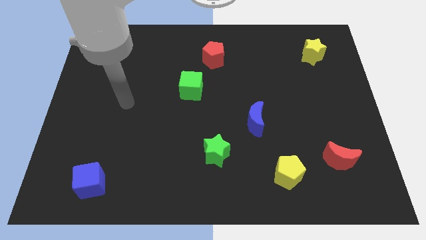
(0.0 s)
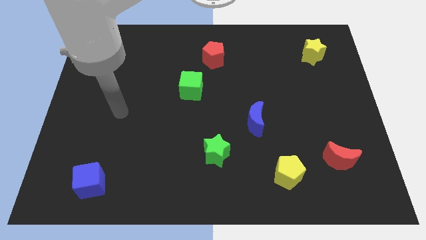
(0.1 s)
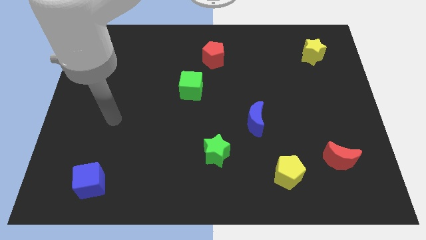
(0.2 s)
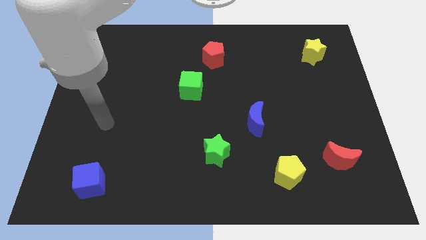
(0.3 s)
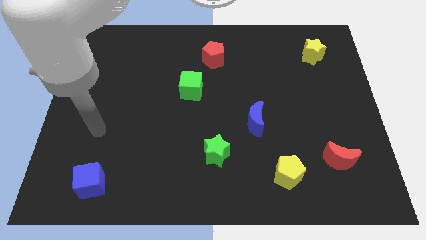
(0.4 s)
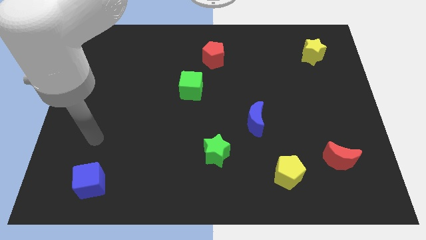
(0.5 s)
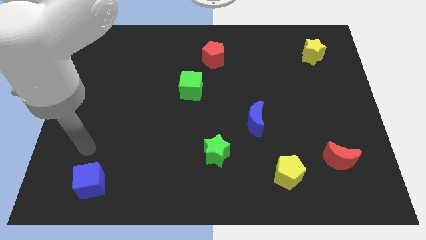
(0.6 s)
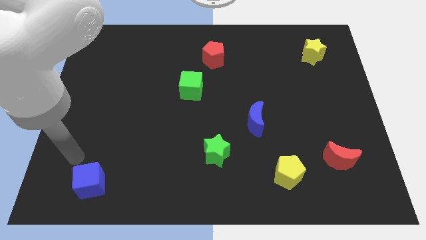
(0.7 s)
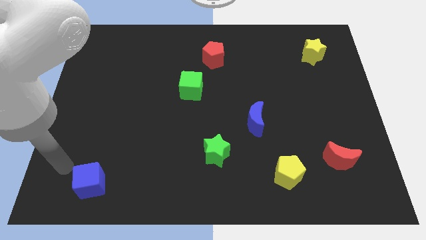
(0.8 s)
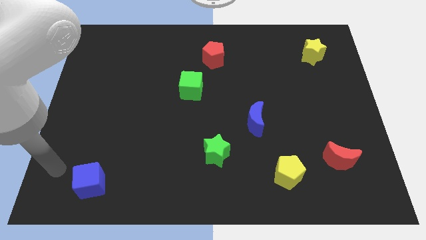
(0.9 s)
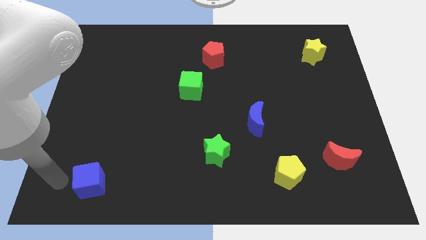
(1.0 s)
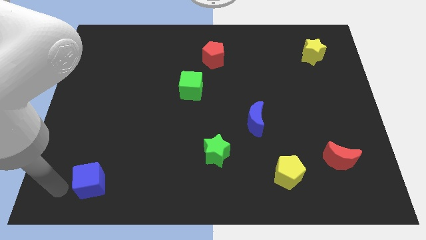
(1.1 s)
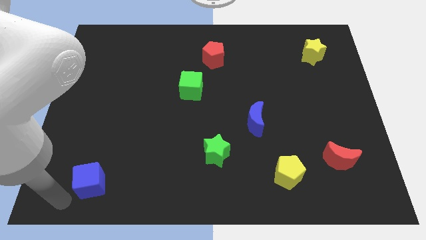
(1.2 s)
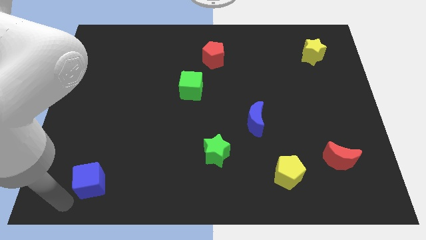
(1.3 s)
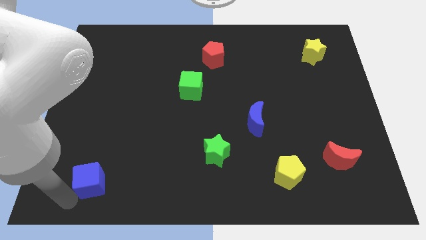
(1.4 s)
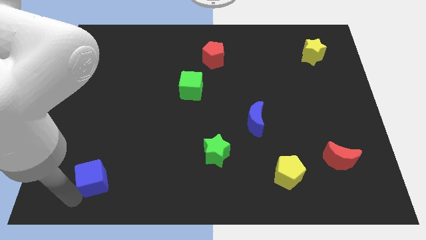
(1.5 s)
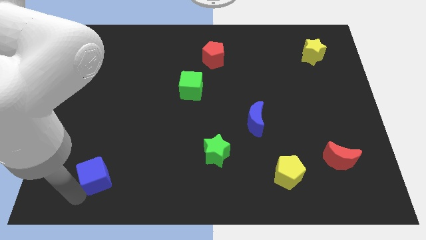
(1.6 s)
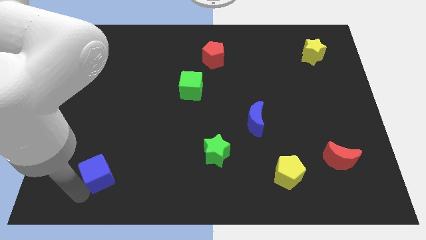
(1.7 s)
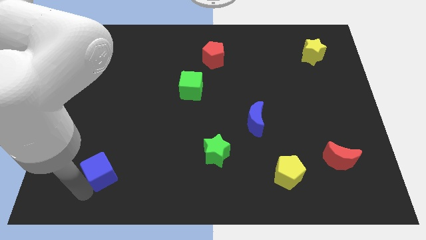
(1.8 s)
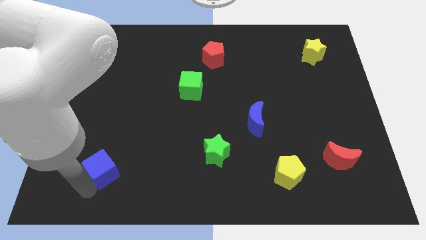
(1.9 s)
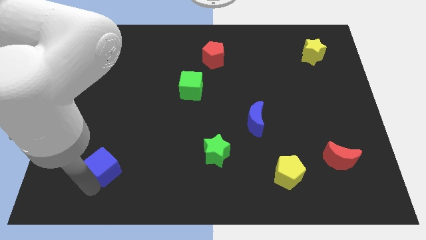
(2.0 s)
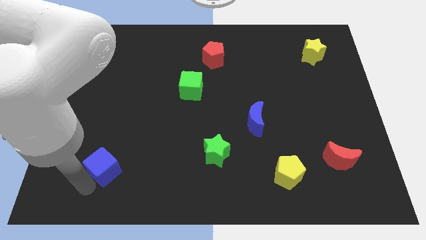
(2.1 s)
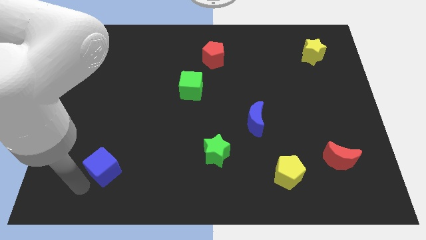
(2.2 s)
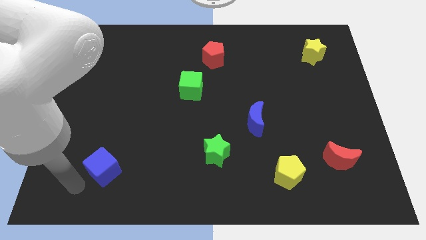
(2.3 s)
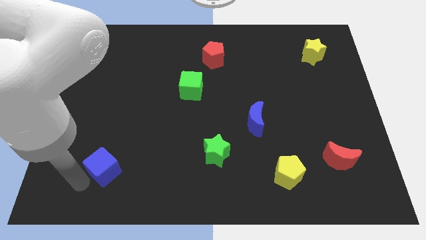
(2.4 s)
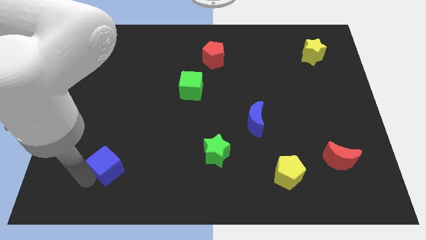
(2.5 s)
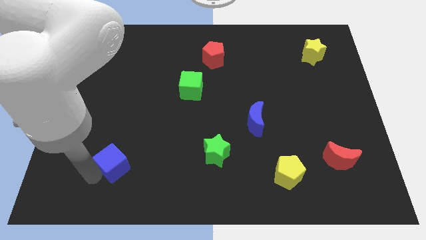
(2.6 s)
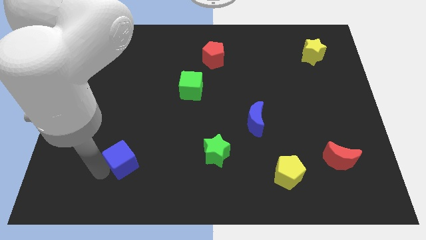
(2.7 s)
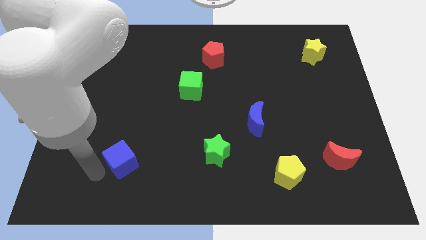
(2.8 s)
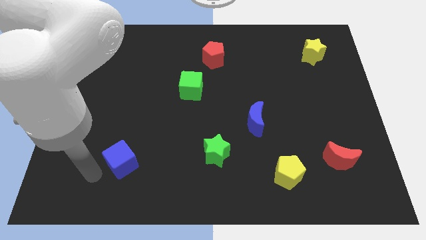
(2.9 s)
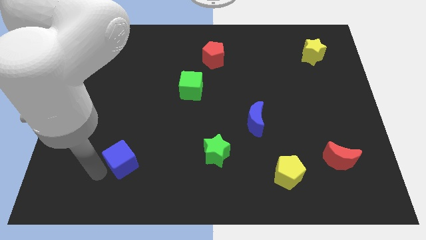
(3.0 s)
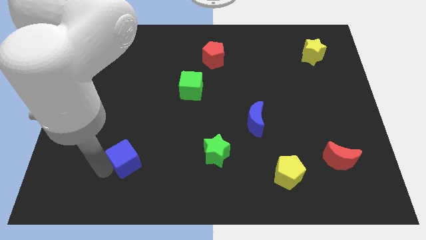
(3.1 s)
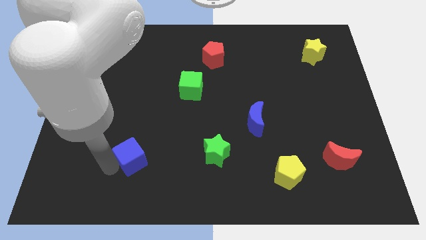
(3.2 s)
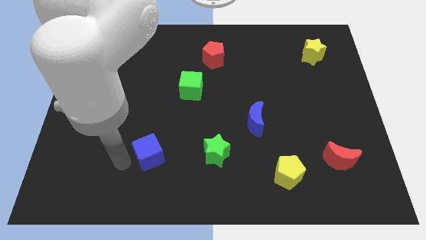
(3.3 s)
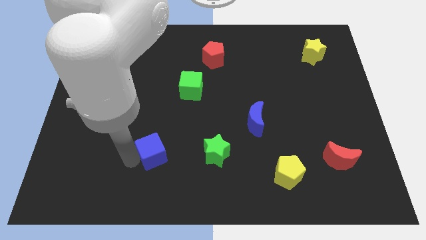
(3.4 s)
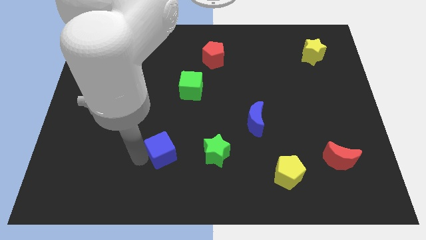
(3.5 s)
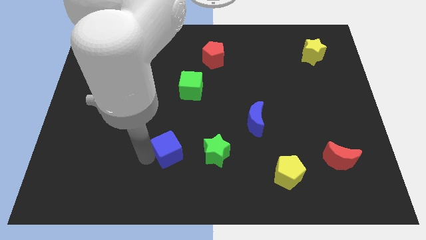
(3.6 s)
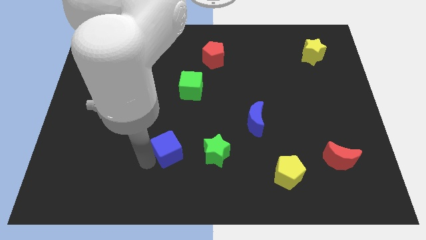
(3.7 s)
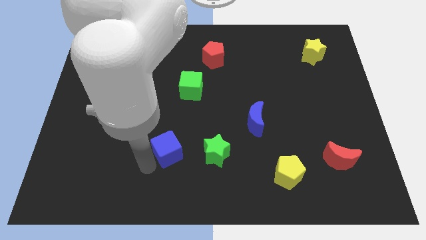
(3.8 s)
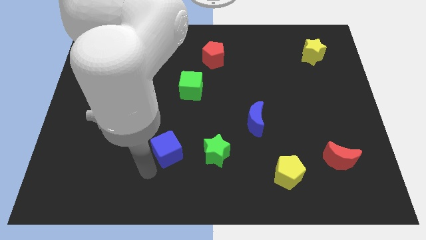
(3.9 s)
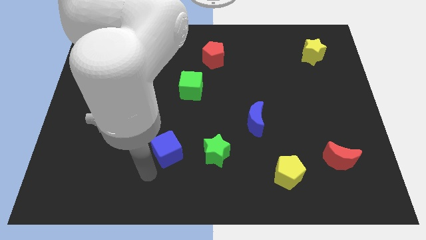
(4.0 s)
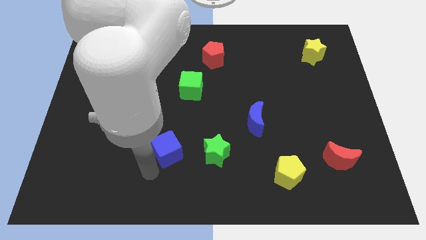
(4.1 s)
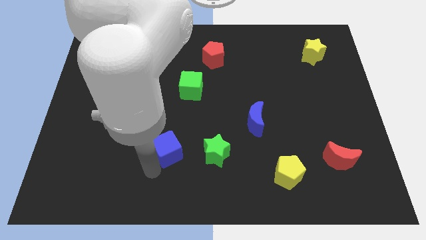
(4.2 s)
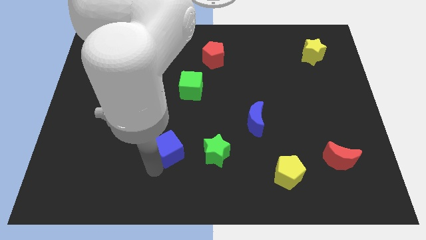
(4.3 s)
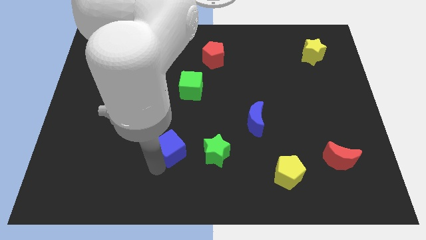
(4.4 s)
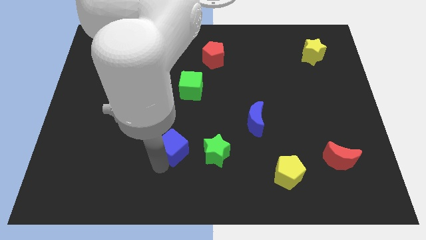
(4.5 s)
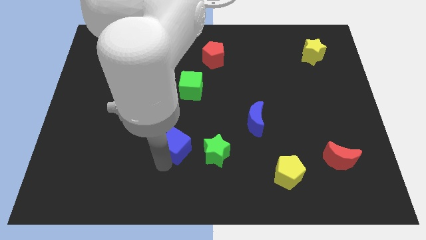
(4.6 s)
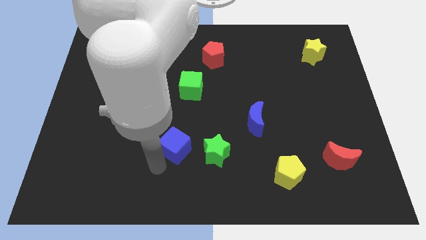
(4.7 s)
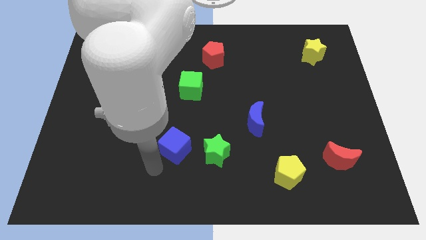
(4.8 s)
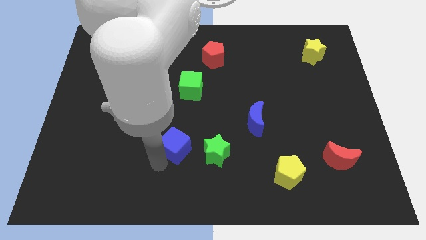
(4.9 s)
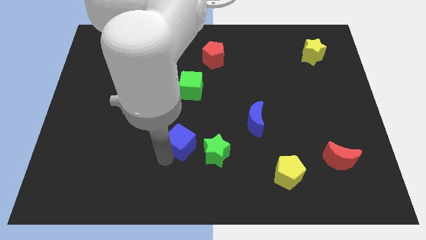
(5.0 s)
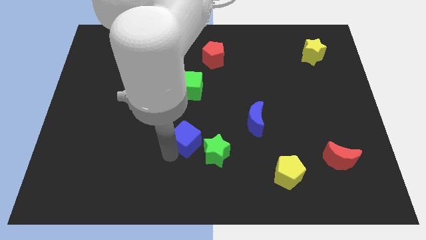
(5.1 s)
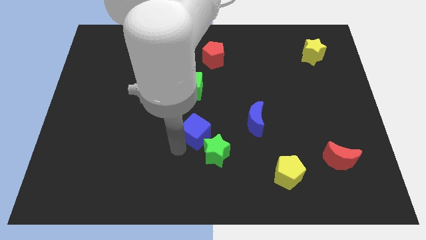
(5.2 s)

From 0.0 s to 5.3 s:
move the blue cube above the green star

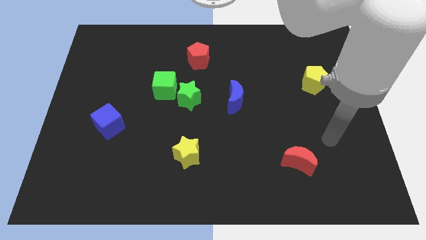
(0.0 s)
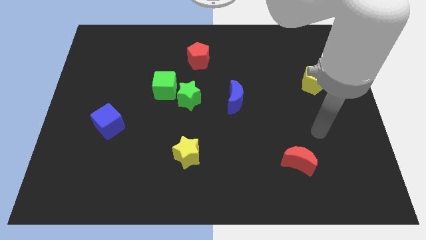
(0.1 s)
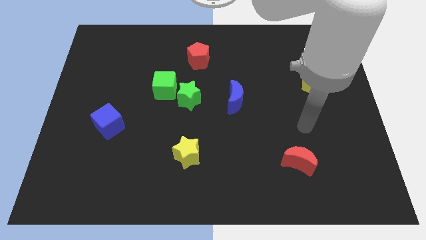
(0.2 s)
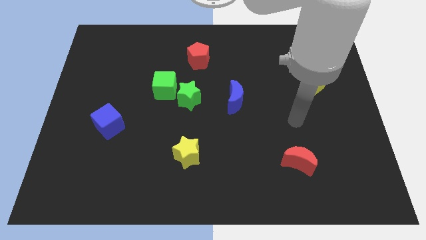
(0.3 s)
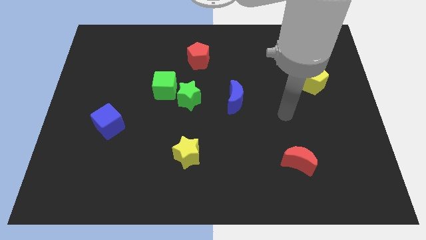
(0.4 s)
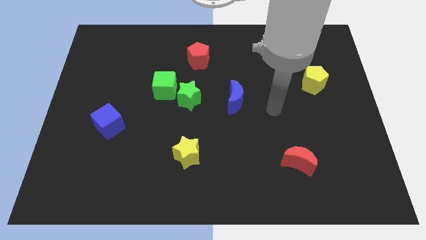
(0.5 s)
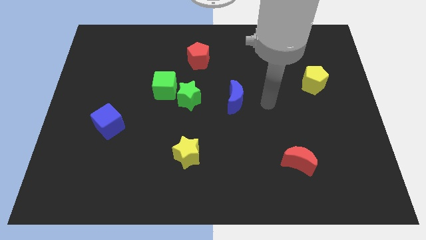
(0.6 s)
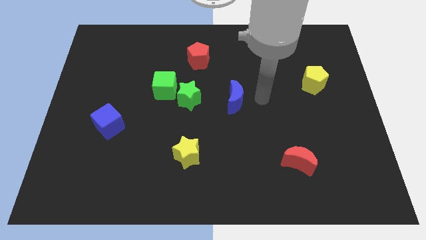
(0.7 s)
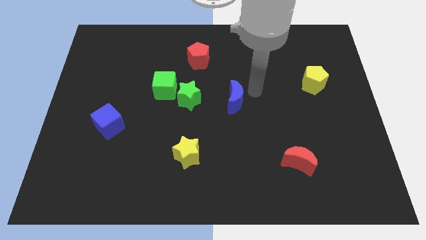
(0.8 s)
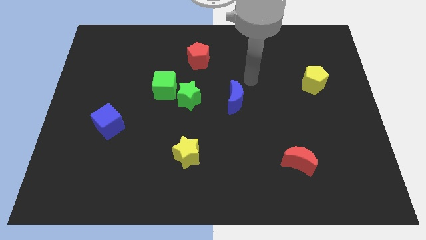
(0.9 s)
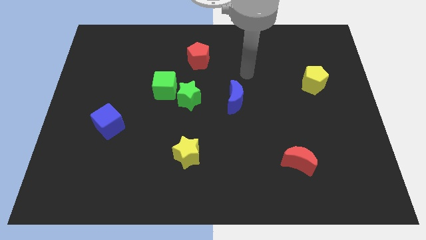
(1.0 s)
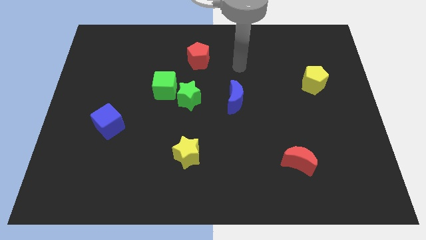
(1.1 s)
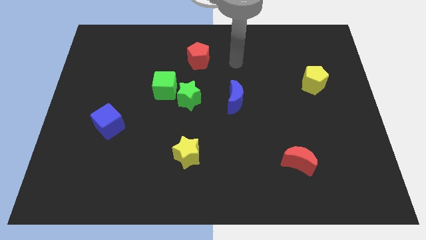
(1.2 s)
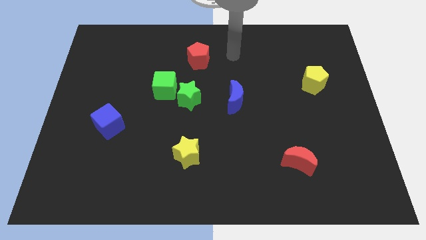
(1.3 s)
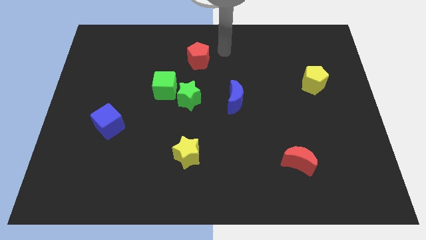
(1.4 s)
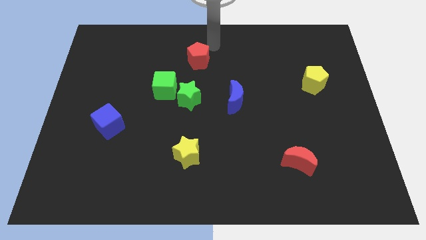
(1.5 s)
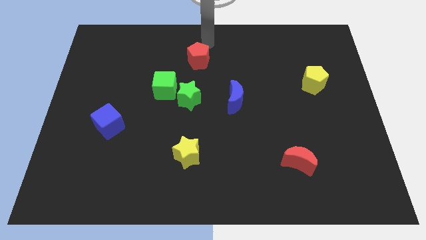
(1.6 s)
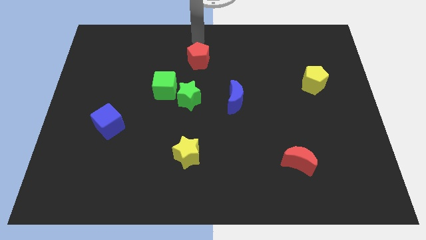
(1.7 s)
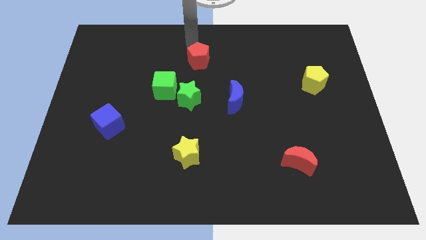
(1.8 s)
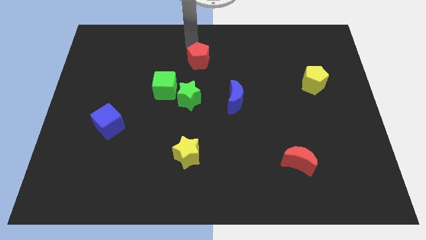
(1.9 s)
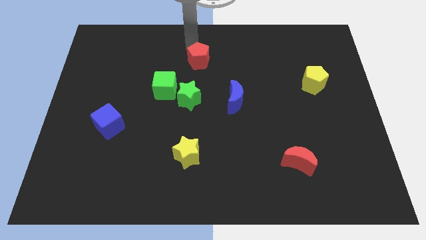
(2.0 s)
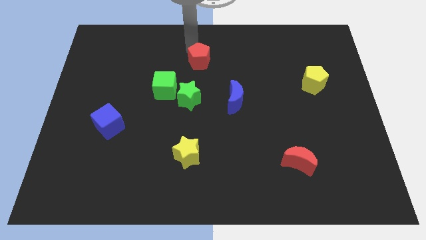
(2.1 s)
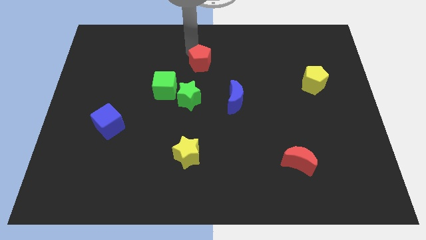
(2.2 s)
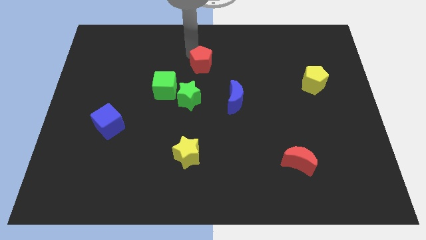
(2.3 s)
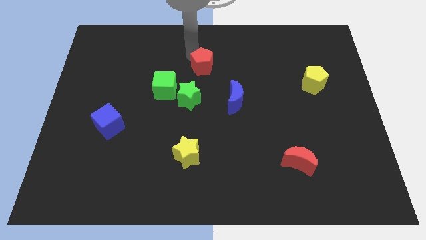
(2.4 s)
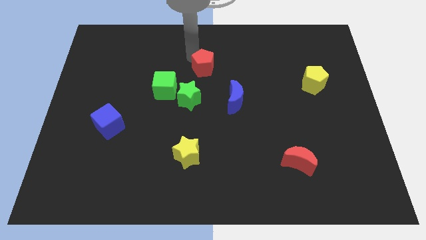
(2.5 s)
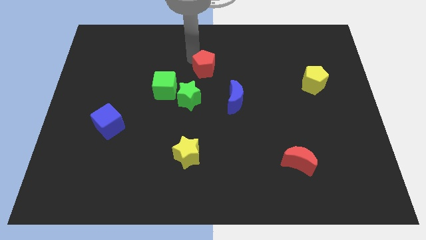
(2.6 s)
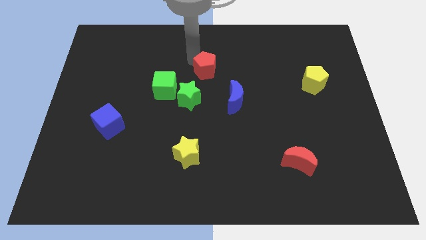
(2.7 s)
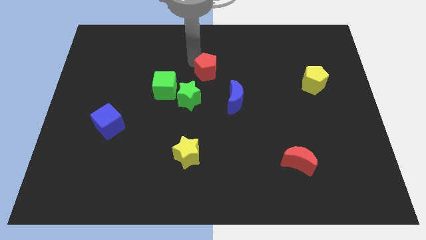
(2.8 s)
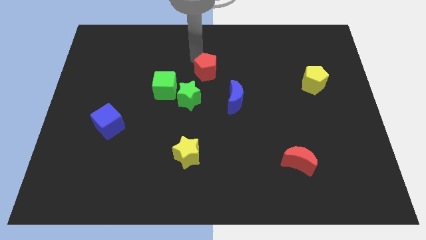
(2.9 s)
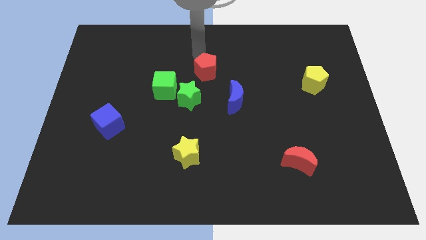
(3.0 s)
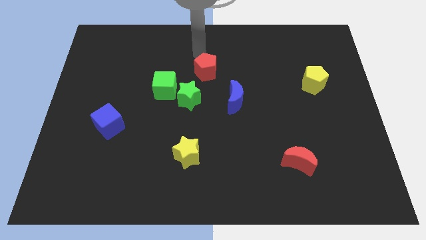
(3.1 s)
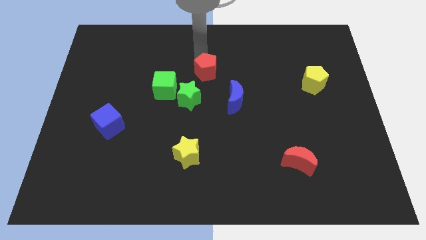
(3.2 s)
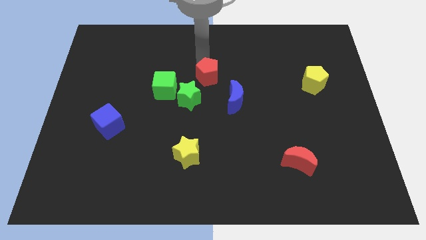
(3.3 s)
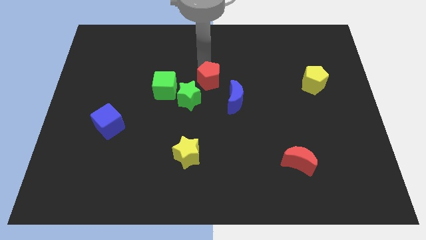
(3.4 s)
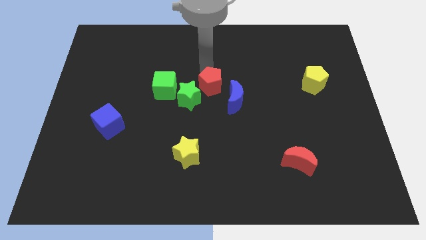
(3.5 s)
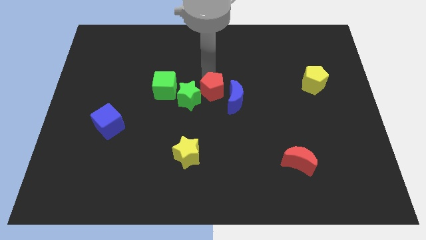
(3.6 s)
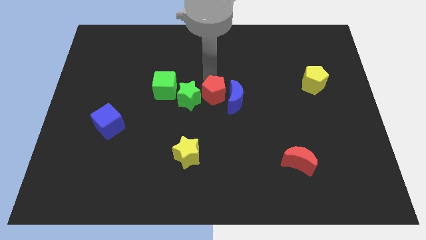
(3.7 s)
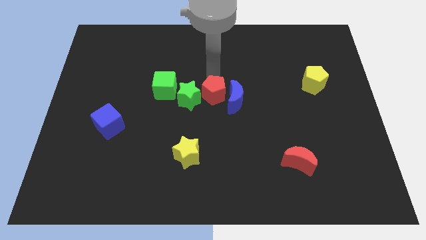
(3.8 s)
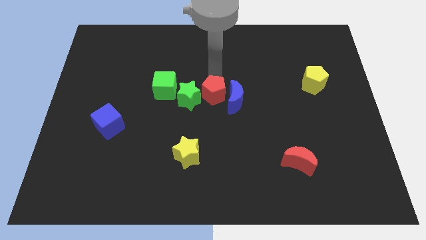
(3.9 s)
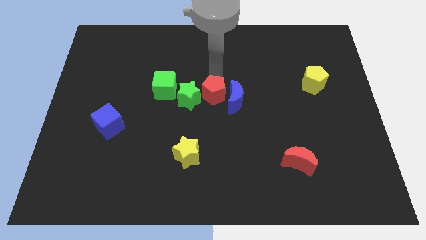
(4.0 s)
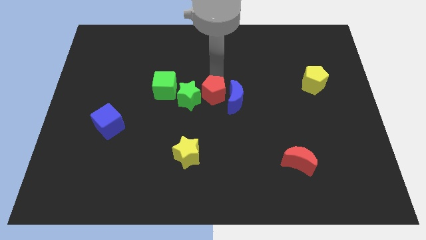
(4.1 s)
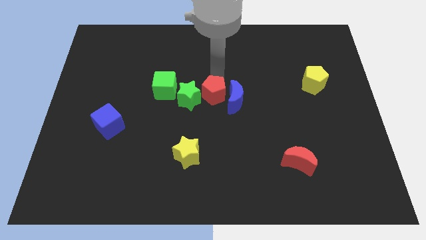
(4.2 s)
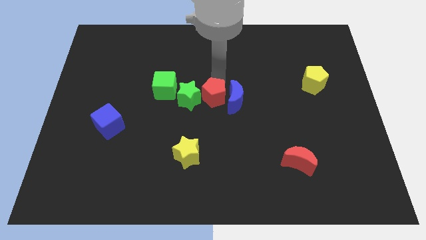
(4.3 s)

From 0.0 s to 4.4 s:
push the red pentagon to the bottom left of the blue moon
